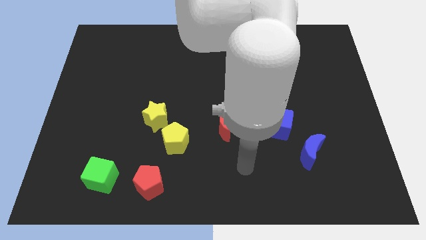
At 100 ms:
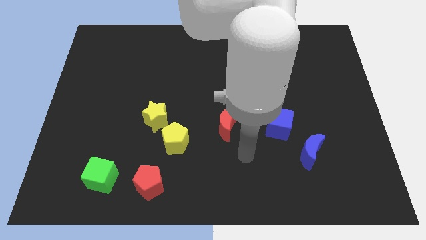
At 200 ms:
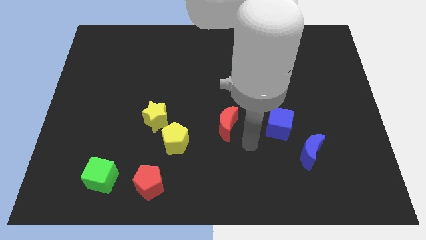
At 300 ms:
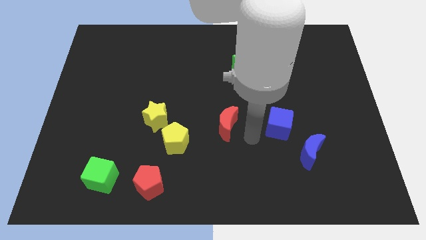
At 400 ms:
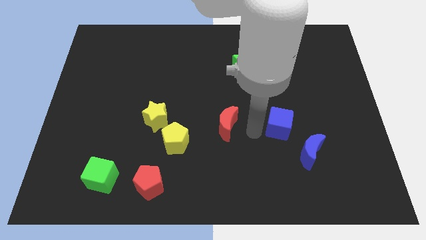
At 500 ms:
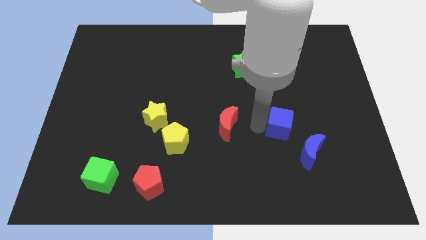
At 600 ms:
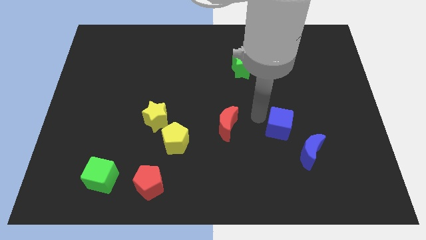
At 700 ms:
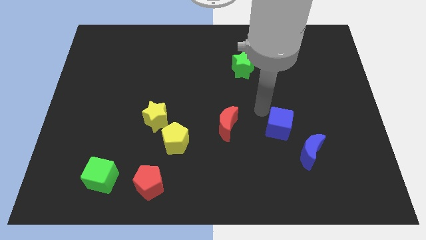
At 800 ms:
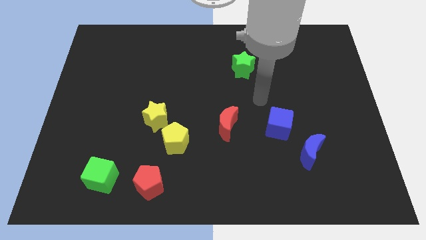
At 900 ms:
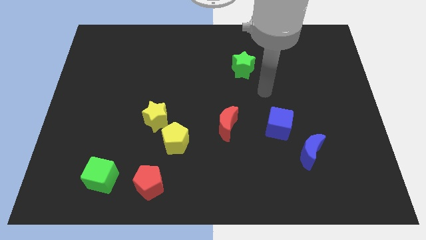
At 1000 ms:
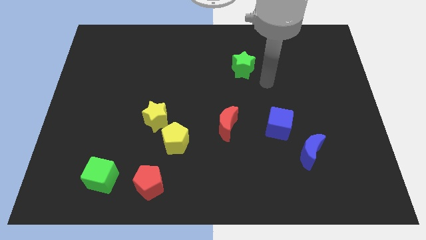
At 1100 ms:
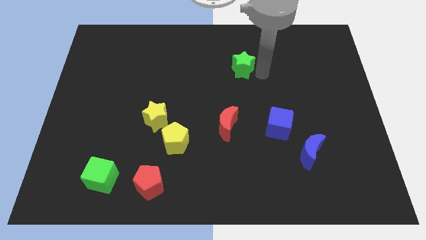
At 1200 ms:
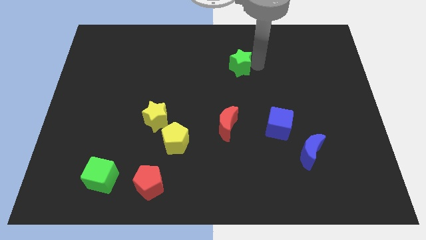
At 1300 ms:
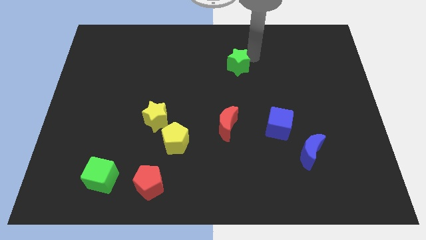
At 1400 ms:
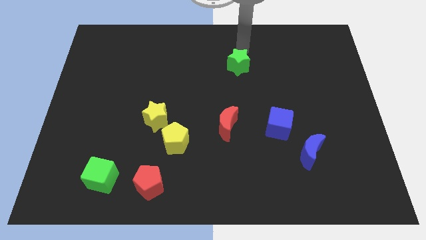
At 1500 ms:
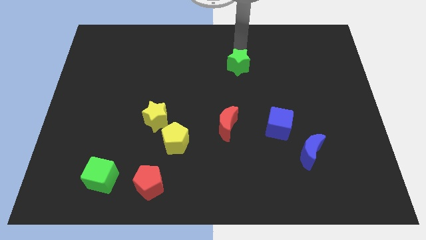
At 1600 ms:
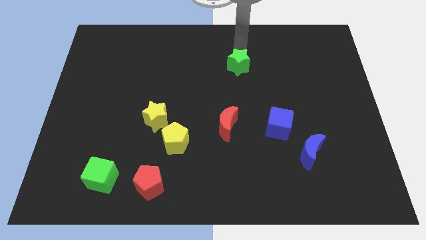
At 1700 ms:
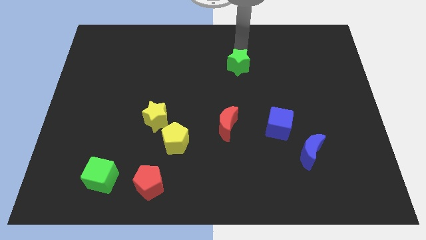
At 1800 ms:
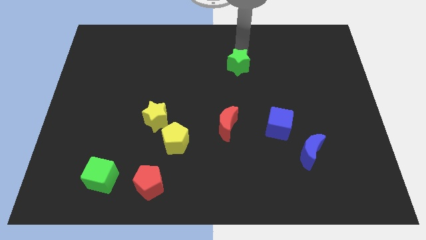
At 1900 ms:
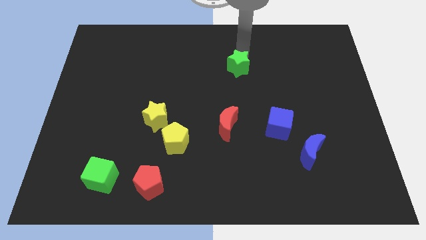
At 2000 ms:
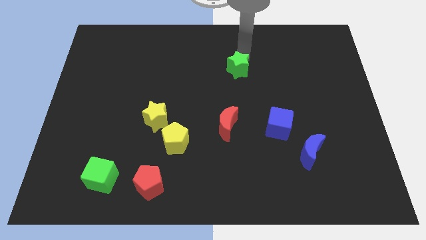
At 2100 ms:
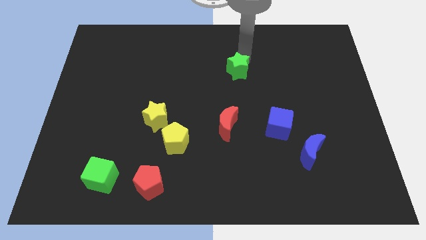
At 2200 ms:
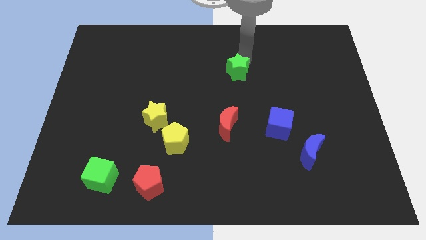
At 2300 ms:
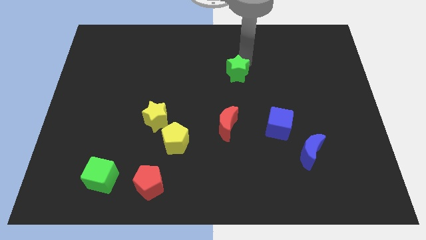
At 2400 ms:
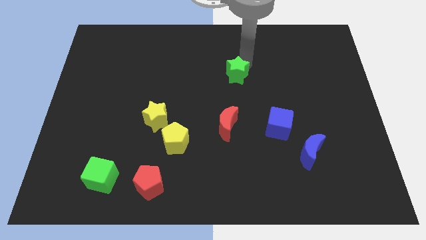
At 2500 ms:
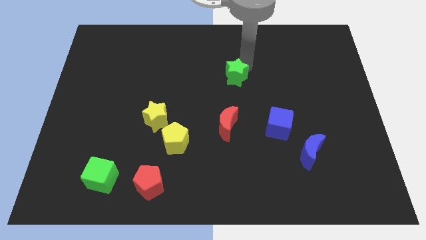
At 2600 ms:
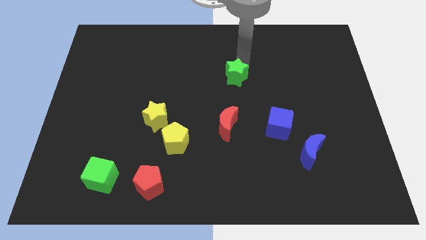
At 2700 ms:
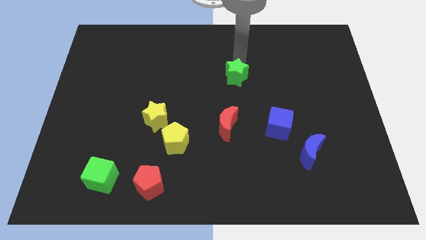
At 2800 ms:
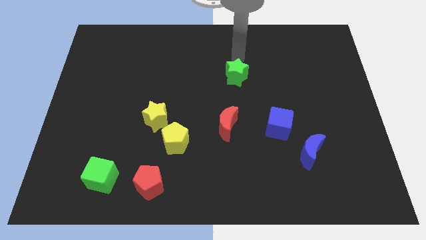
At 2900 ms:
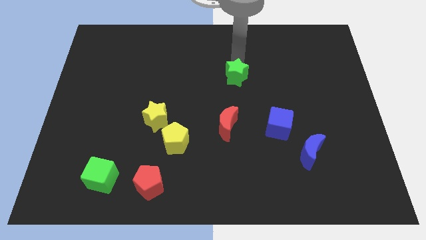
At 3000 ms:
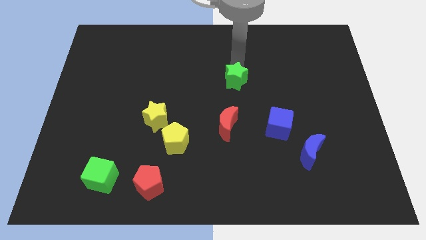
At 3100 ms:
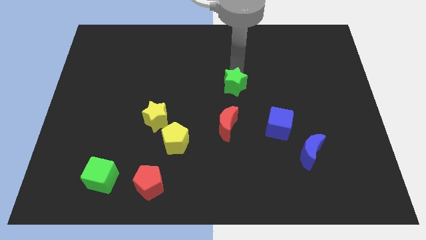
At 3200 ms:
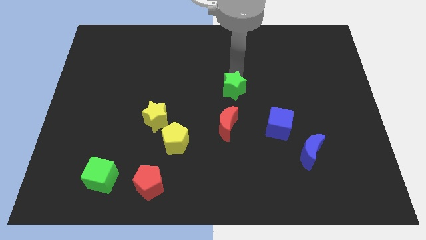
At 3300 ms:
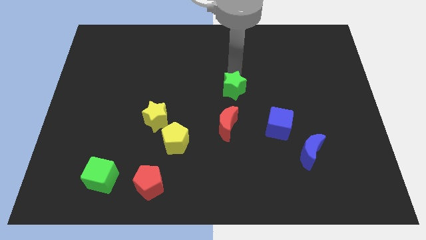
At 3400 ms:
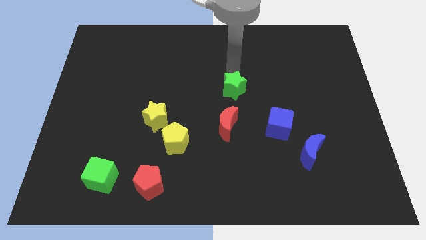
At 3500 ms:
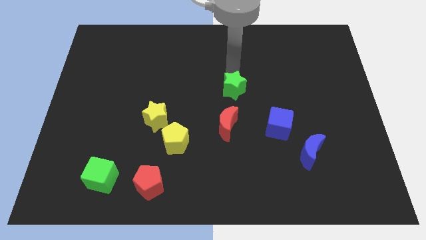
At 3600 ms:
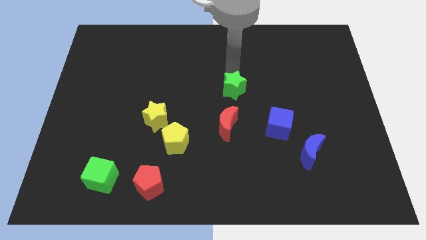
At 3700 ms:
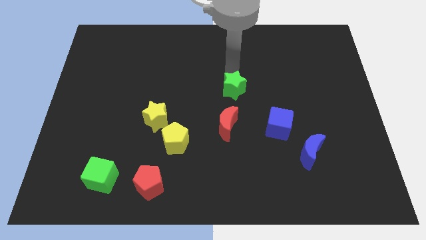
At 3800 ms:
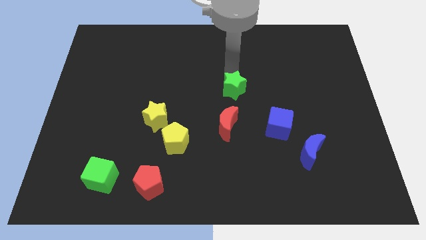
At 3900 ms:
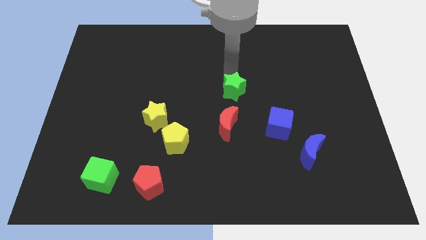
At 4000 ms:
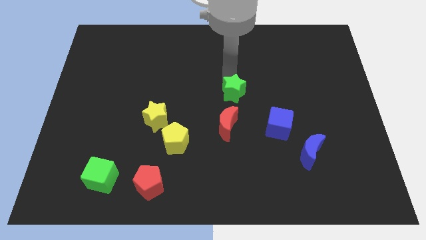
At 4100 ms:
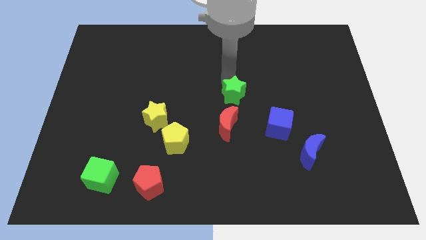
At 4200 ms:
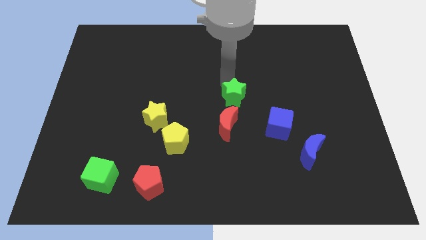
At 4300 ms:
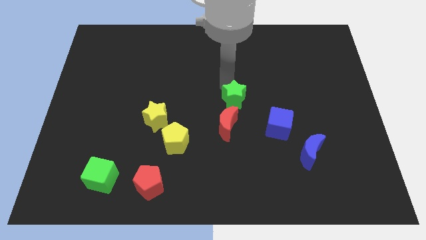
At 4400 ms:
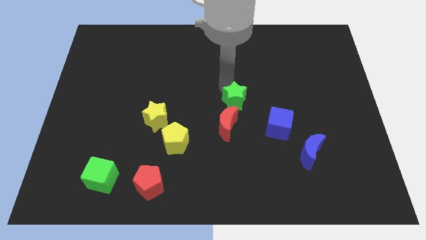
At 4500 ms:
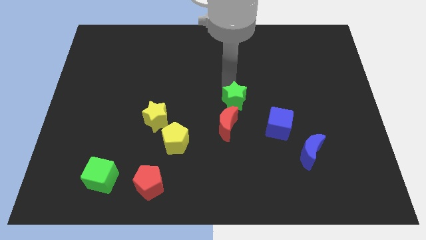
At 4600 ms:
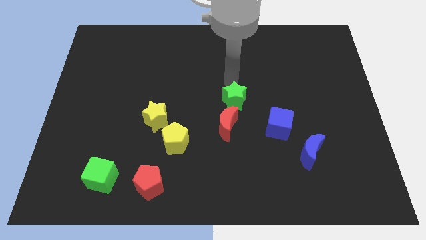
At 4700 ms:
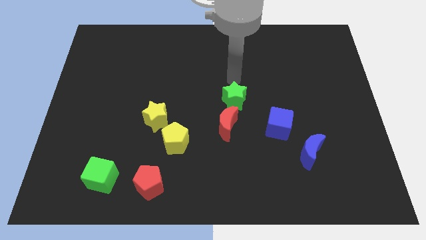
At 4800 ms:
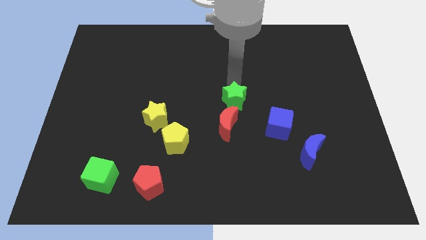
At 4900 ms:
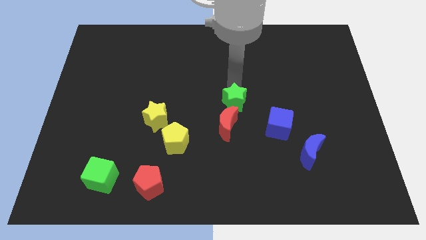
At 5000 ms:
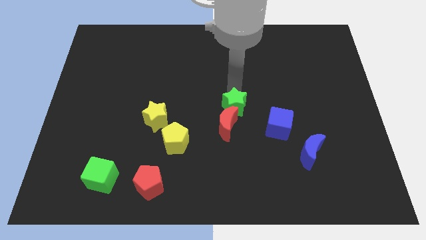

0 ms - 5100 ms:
slide the green star towards the red moon

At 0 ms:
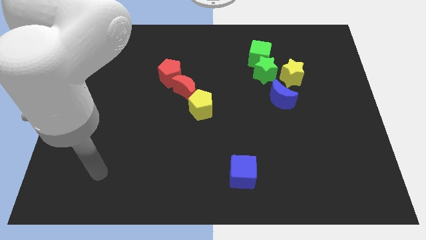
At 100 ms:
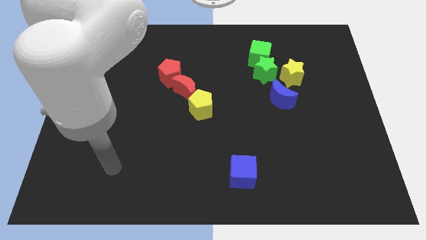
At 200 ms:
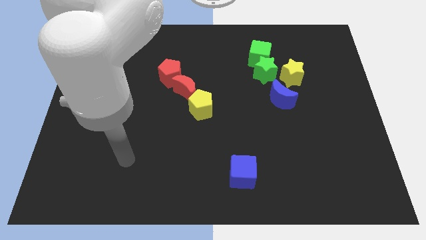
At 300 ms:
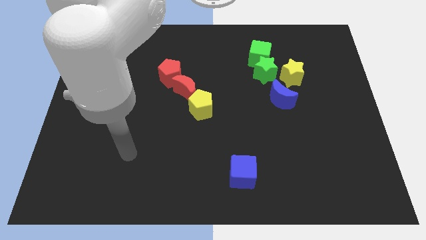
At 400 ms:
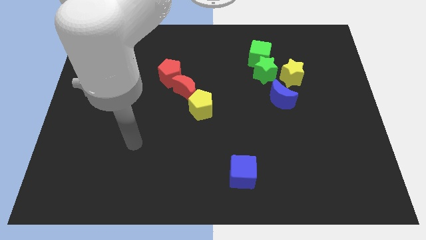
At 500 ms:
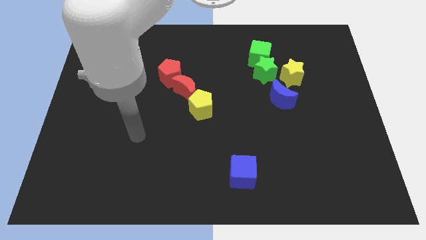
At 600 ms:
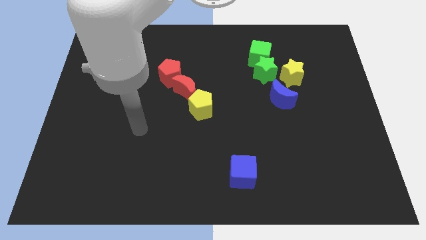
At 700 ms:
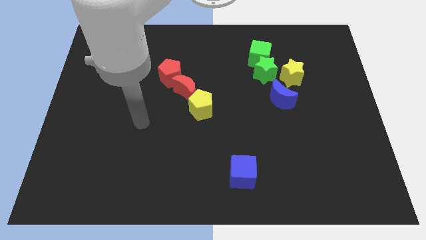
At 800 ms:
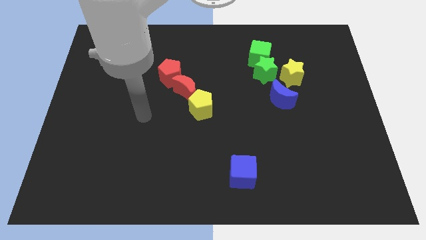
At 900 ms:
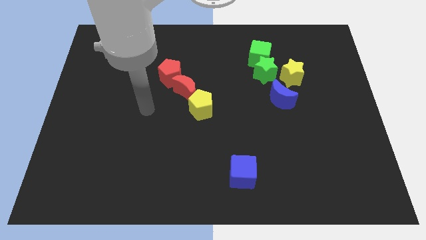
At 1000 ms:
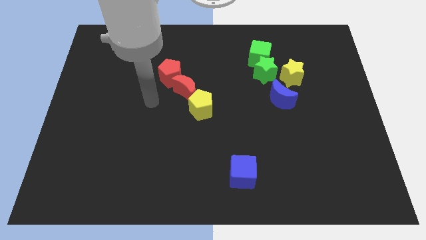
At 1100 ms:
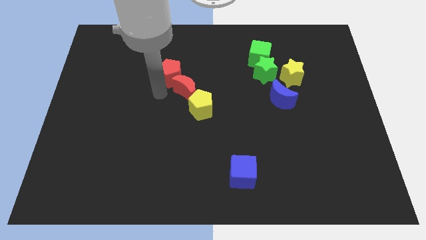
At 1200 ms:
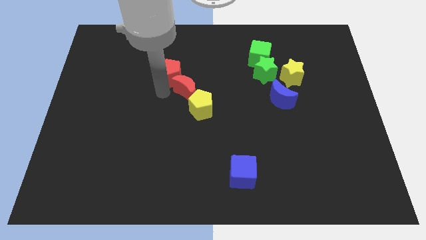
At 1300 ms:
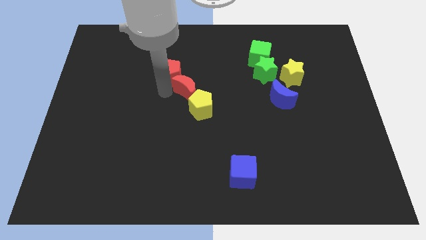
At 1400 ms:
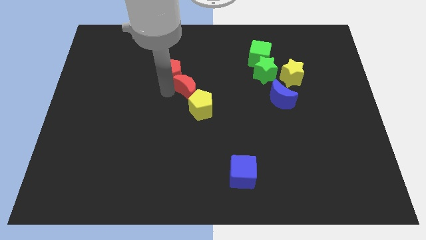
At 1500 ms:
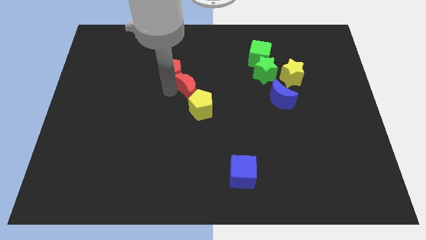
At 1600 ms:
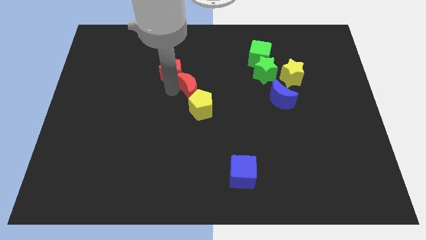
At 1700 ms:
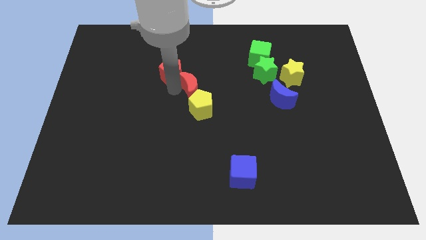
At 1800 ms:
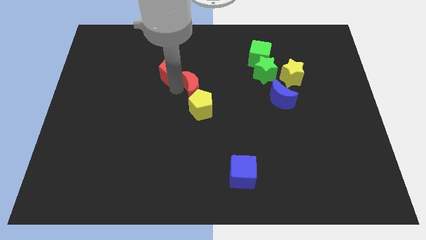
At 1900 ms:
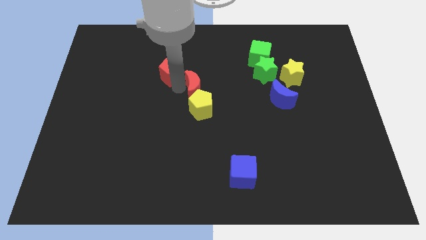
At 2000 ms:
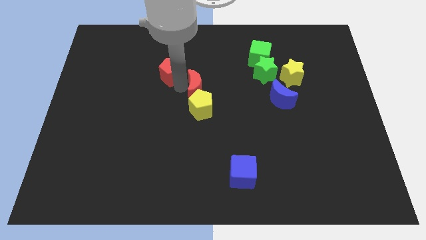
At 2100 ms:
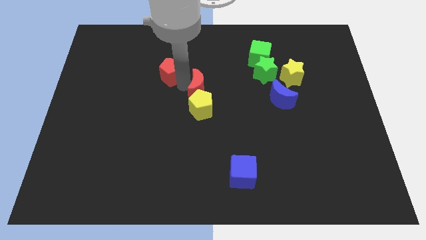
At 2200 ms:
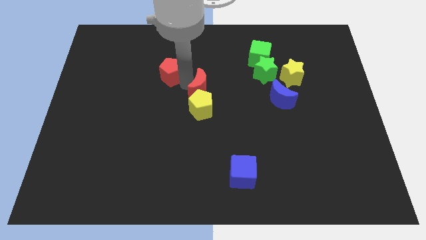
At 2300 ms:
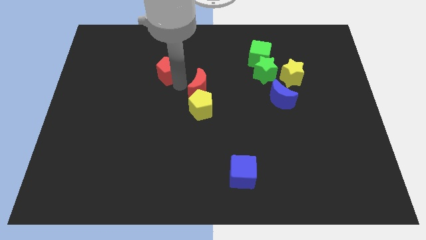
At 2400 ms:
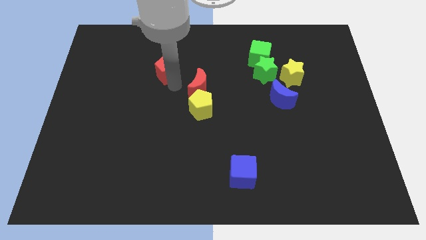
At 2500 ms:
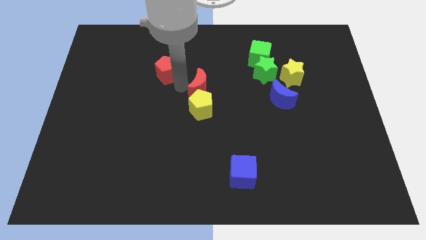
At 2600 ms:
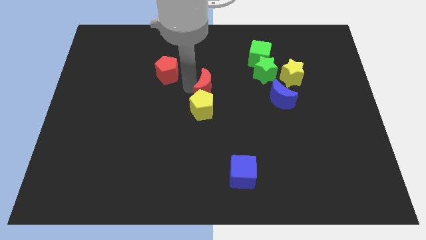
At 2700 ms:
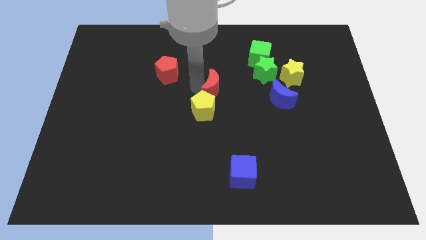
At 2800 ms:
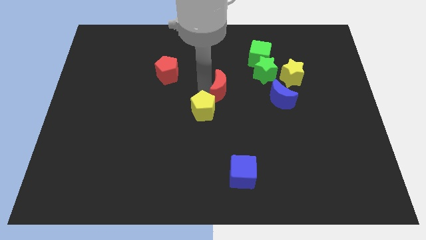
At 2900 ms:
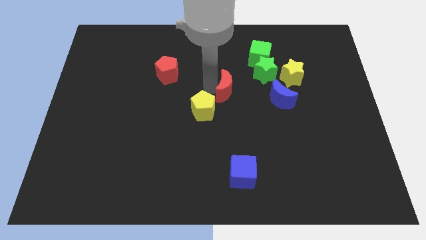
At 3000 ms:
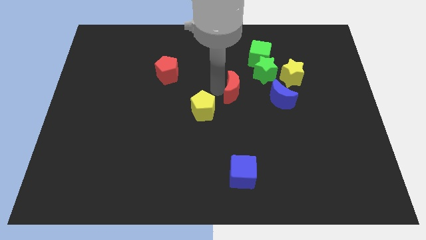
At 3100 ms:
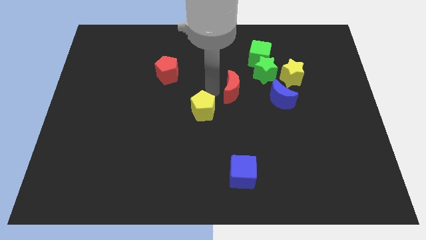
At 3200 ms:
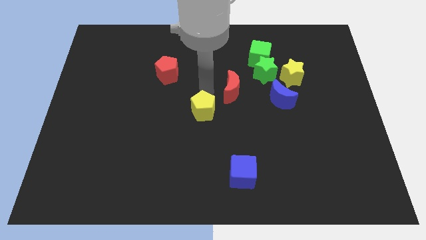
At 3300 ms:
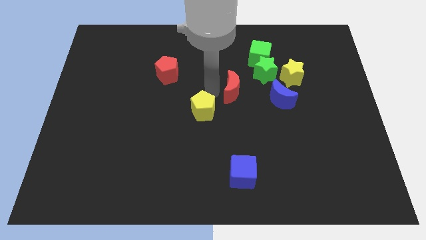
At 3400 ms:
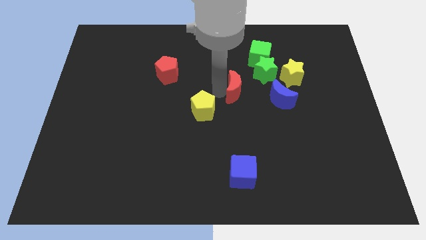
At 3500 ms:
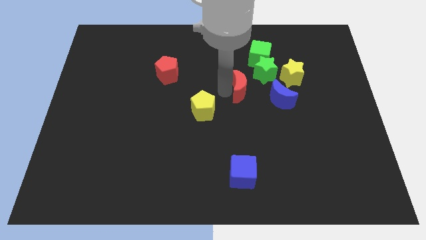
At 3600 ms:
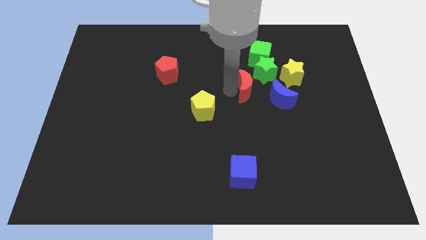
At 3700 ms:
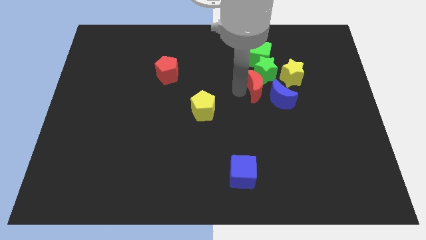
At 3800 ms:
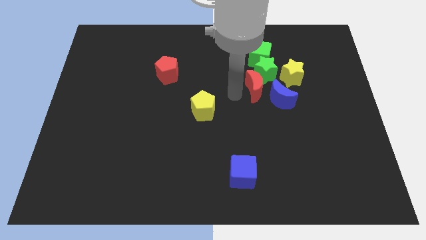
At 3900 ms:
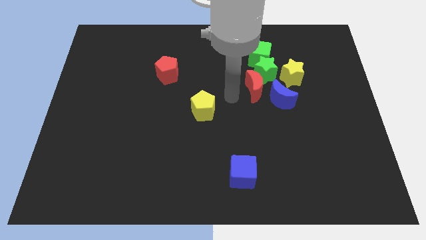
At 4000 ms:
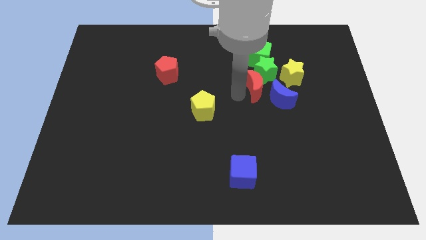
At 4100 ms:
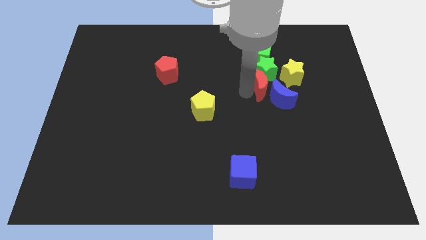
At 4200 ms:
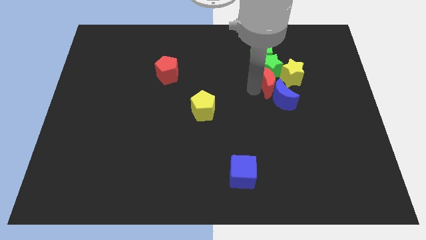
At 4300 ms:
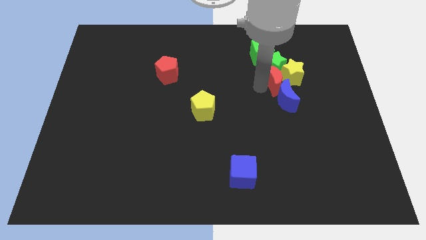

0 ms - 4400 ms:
slide the red moon next to the yellow star
